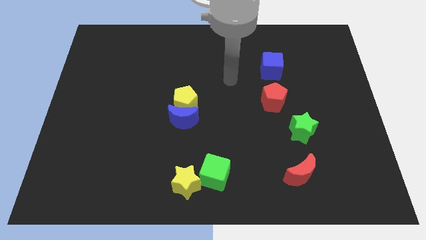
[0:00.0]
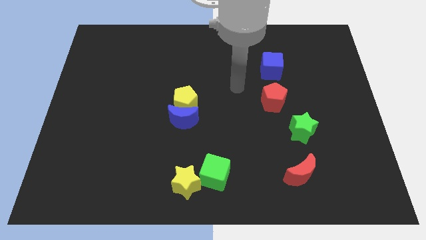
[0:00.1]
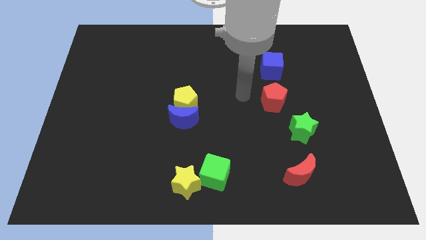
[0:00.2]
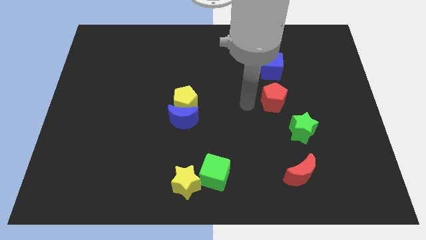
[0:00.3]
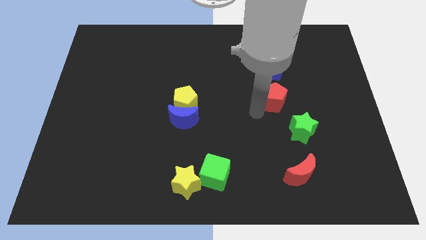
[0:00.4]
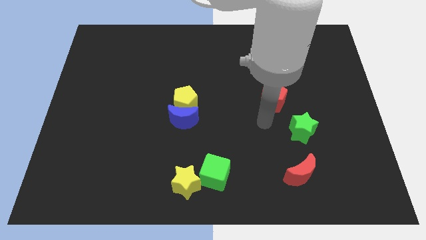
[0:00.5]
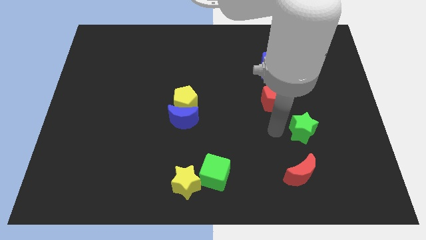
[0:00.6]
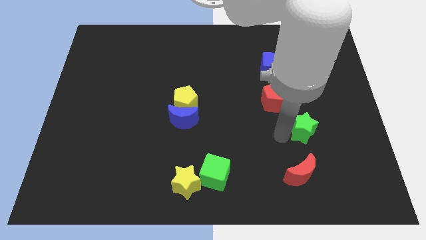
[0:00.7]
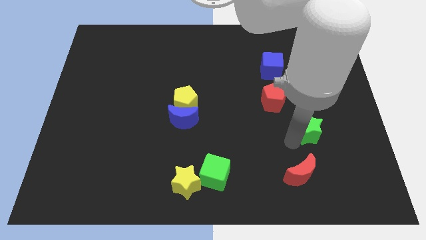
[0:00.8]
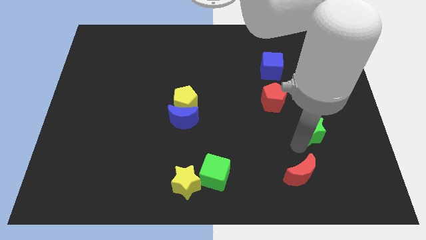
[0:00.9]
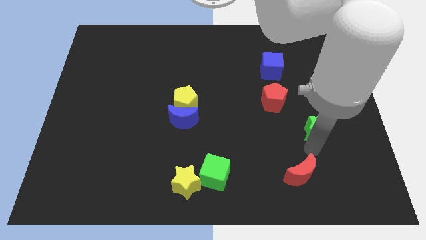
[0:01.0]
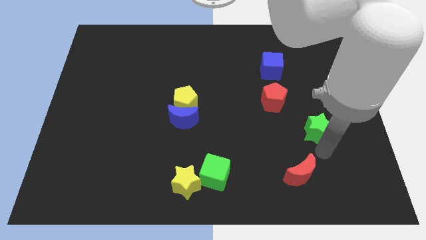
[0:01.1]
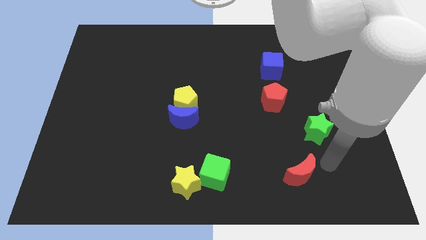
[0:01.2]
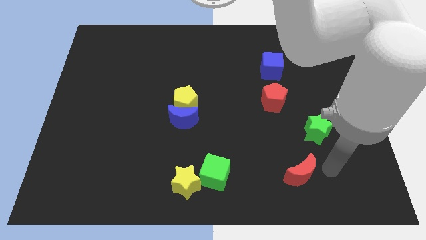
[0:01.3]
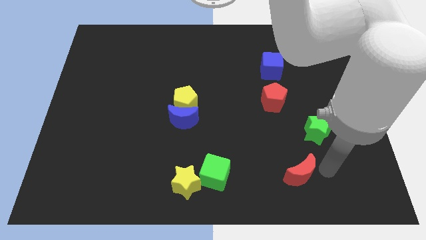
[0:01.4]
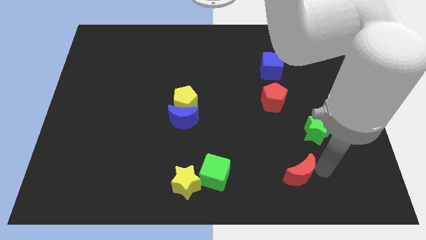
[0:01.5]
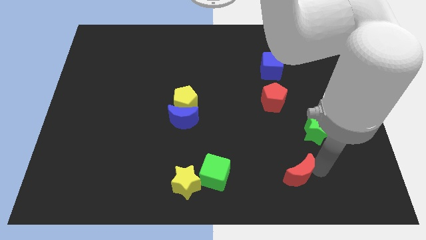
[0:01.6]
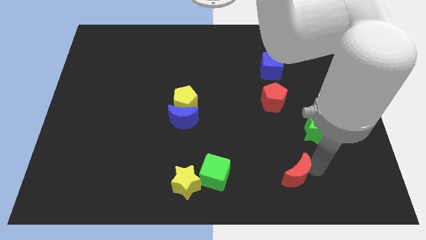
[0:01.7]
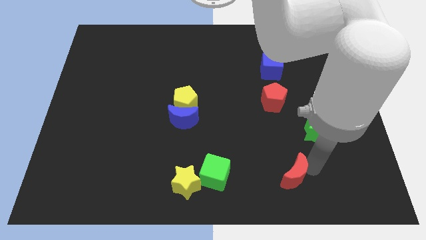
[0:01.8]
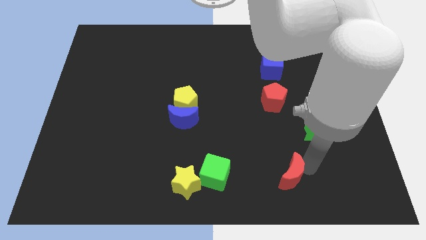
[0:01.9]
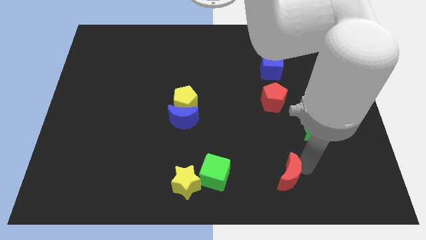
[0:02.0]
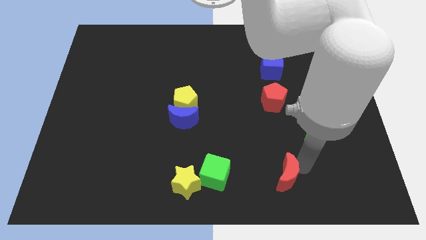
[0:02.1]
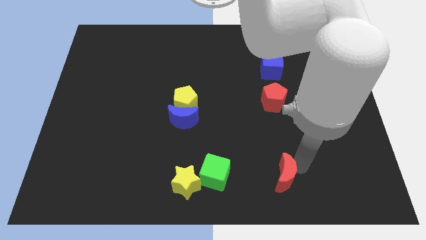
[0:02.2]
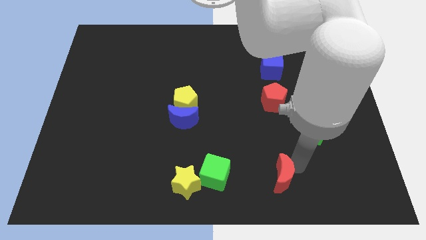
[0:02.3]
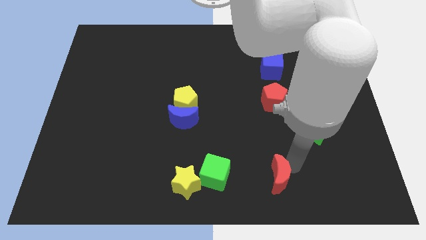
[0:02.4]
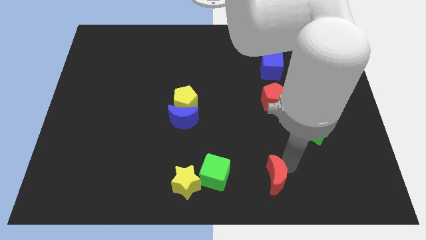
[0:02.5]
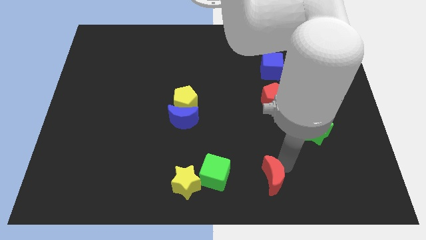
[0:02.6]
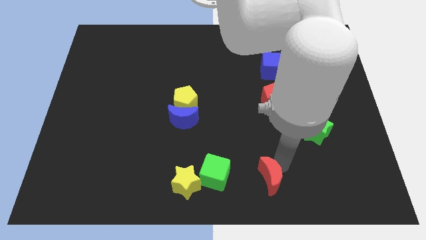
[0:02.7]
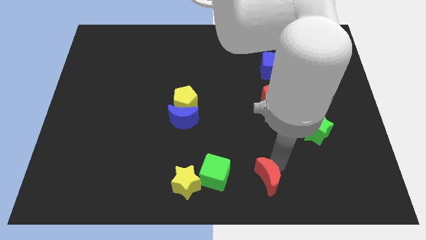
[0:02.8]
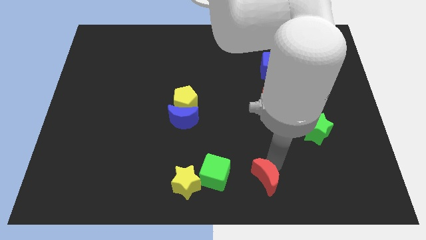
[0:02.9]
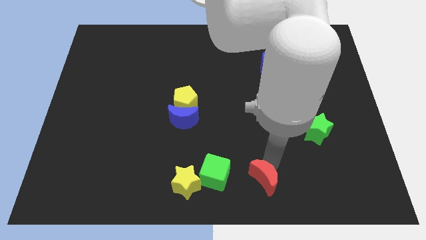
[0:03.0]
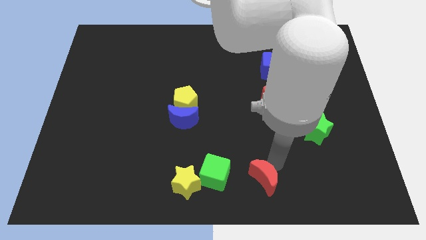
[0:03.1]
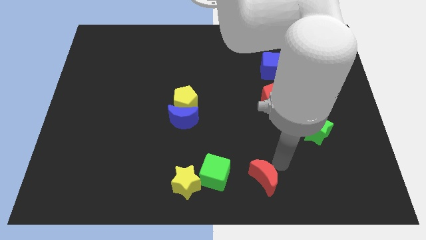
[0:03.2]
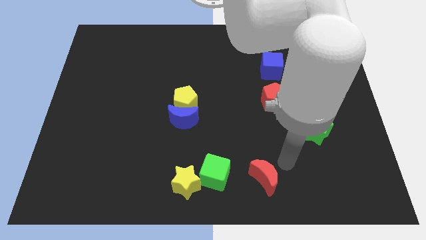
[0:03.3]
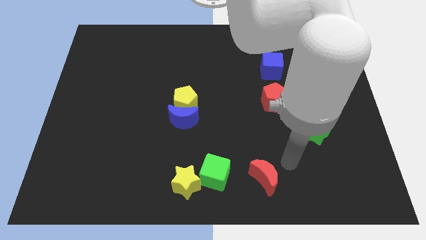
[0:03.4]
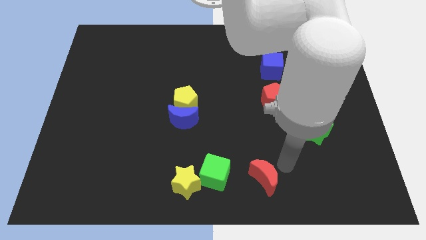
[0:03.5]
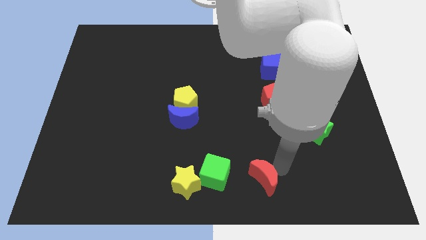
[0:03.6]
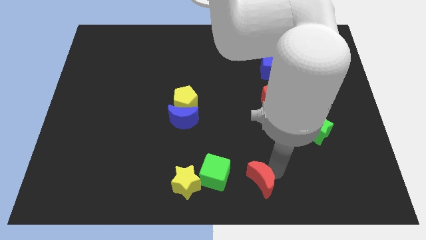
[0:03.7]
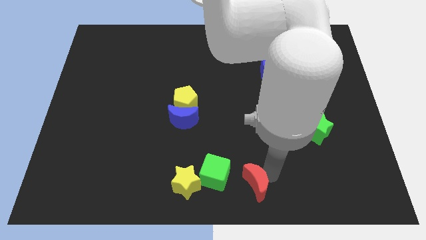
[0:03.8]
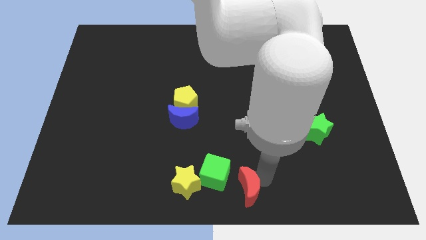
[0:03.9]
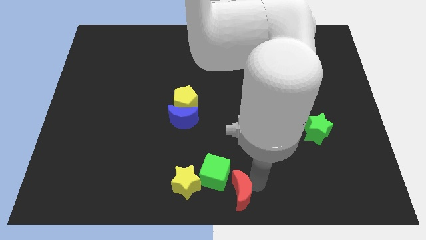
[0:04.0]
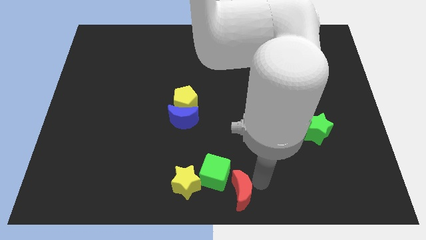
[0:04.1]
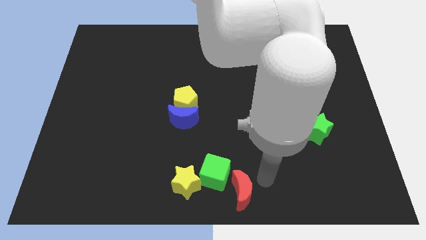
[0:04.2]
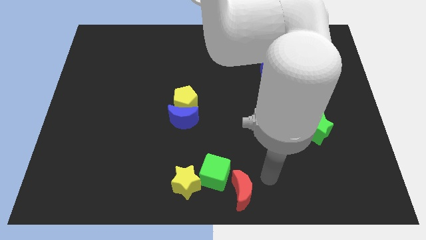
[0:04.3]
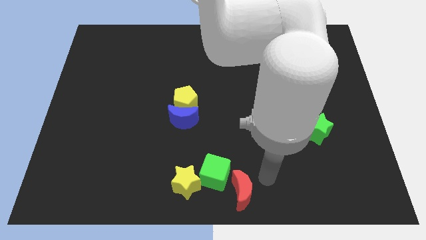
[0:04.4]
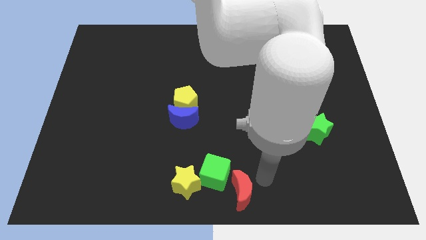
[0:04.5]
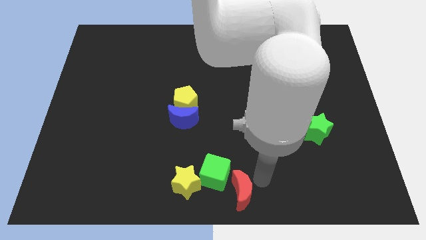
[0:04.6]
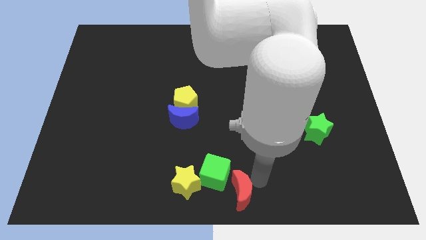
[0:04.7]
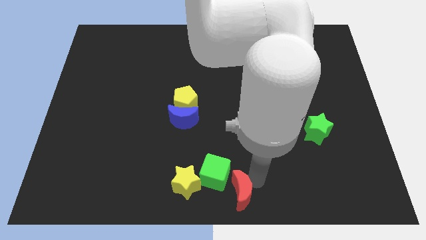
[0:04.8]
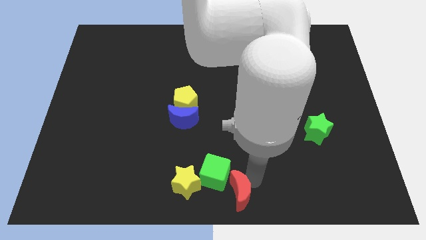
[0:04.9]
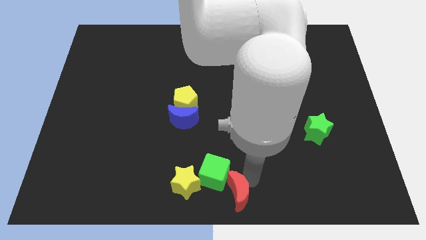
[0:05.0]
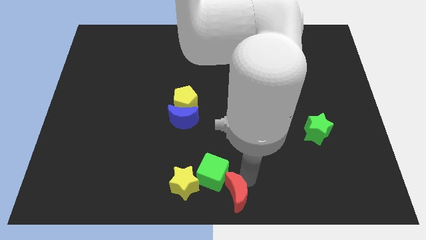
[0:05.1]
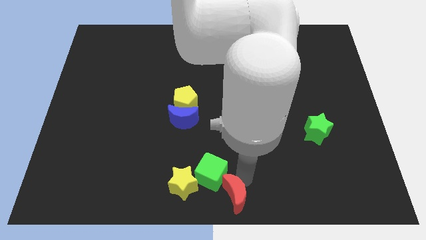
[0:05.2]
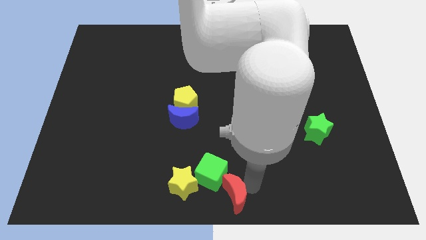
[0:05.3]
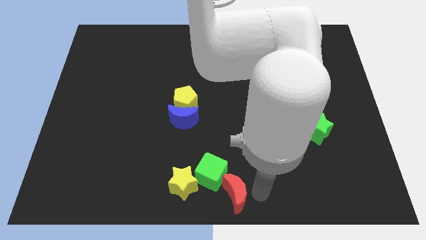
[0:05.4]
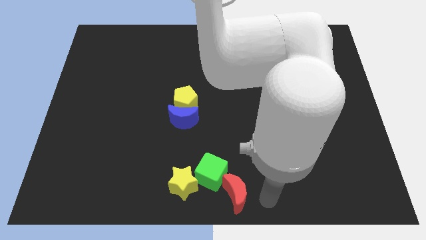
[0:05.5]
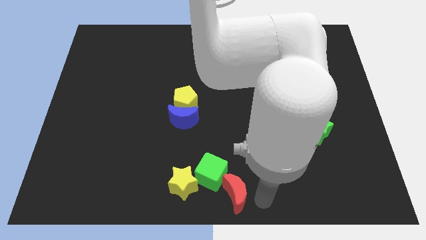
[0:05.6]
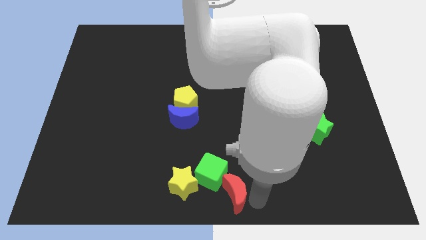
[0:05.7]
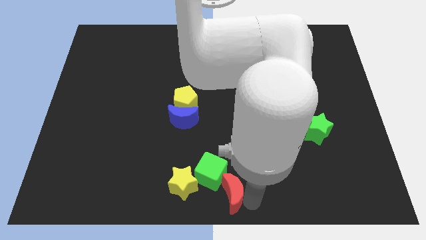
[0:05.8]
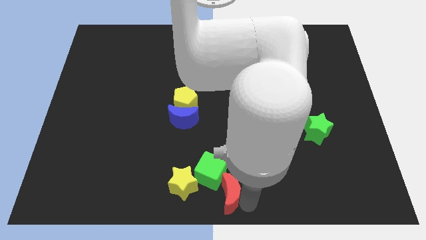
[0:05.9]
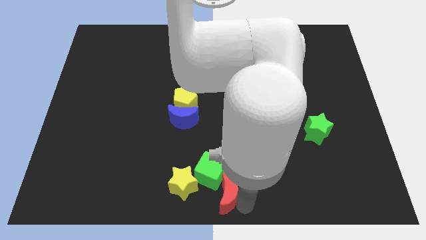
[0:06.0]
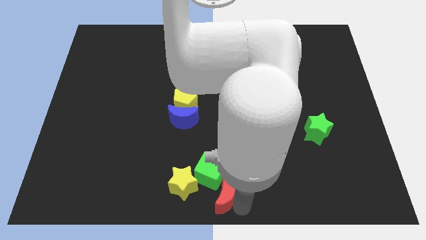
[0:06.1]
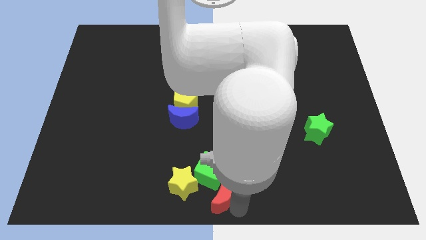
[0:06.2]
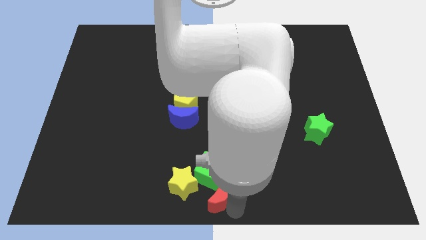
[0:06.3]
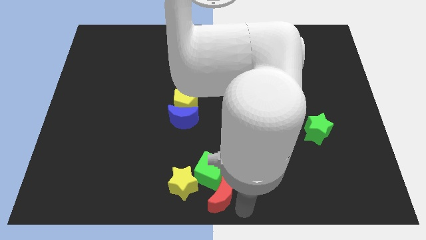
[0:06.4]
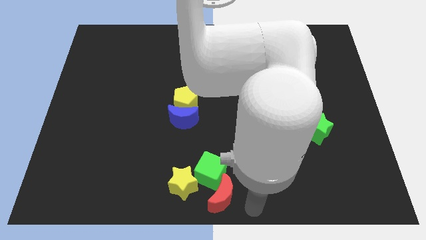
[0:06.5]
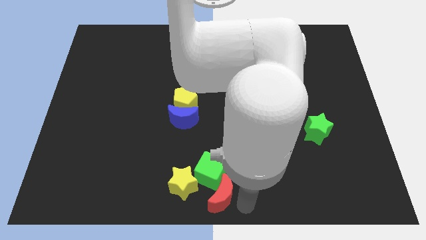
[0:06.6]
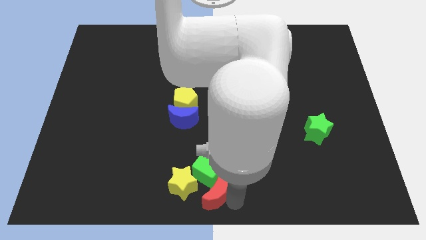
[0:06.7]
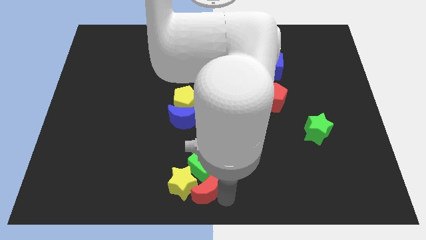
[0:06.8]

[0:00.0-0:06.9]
push the red moon to the yellow star

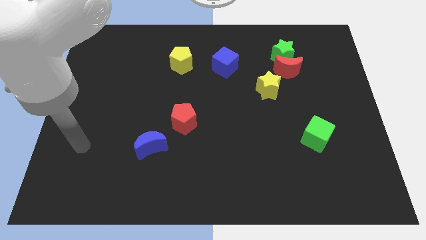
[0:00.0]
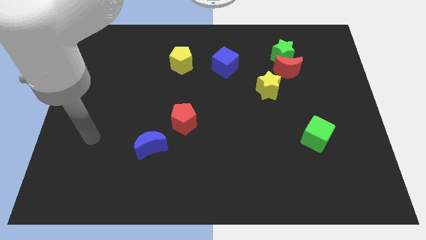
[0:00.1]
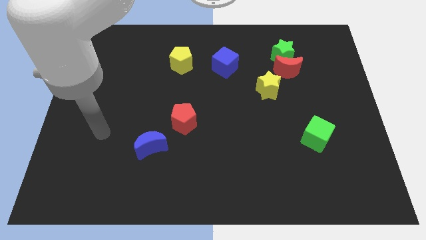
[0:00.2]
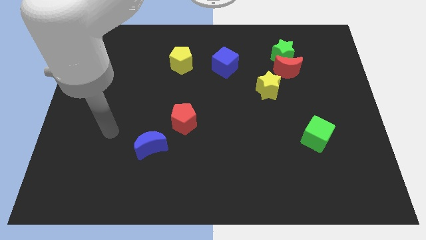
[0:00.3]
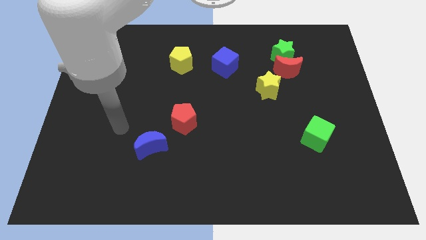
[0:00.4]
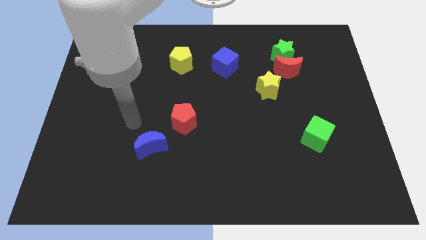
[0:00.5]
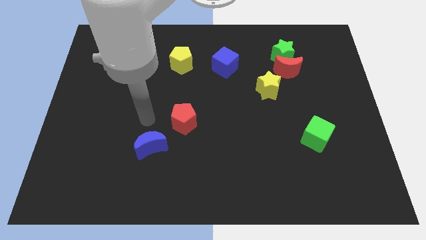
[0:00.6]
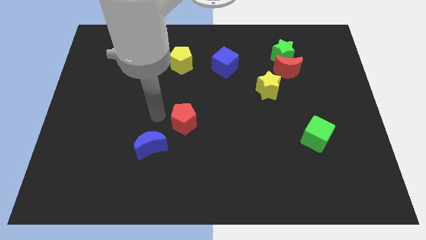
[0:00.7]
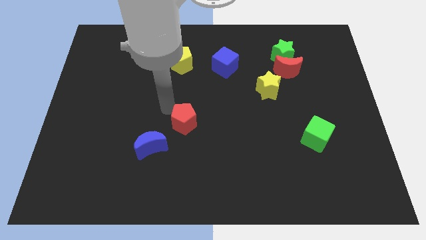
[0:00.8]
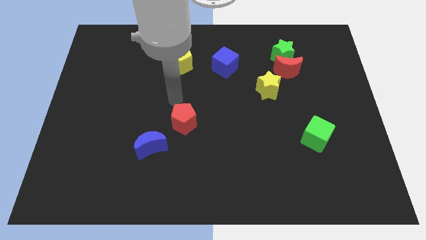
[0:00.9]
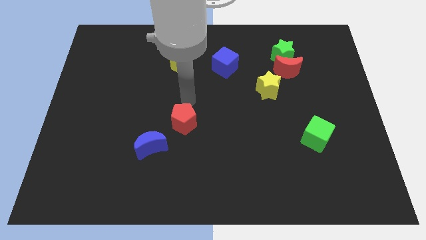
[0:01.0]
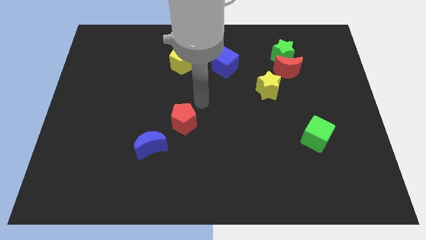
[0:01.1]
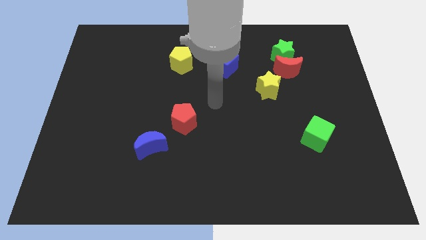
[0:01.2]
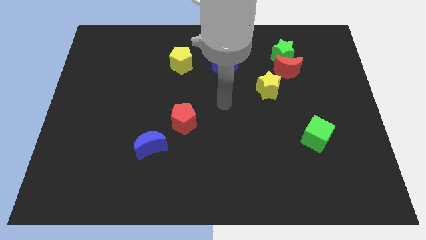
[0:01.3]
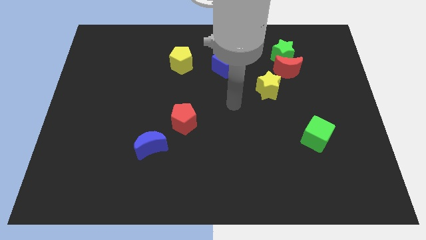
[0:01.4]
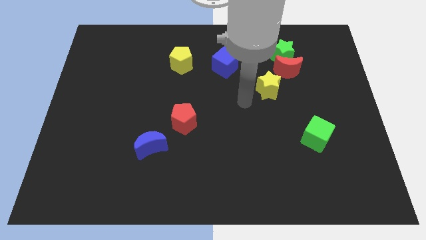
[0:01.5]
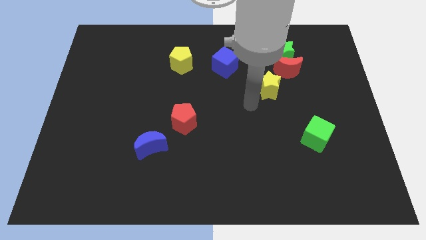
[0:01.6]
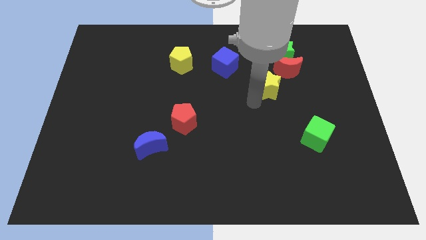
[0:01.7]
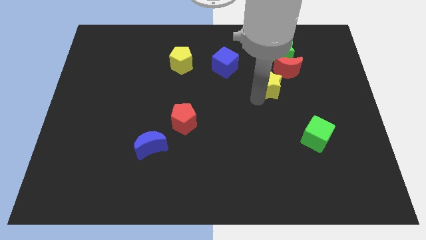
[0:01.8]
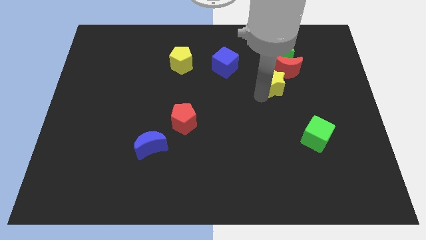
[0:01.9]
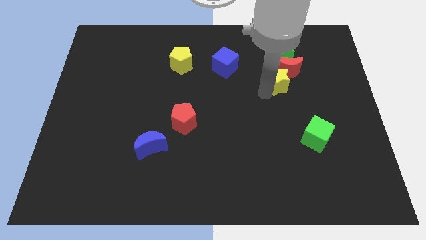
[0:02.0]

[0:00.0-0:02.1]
move the yellow star close to the red moon
